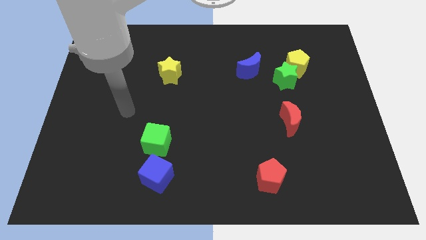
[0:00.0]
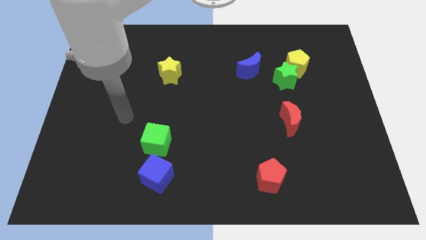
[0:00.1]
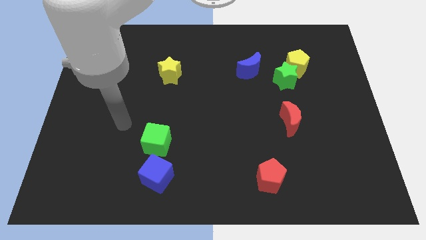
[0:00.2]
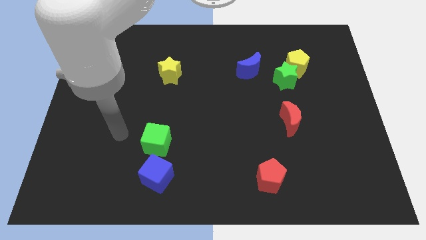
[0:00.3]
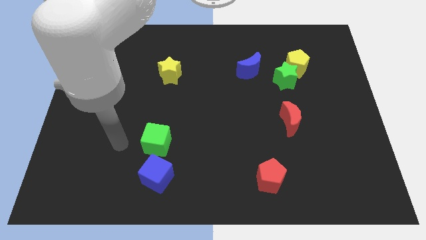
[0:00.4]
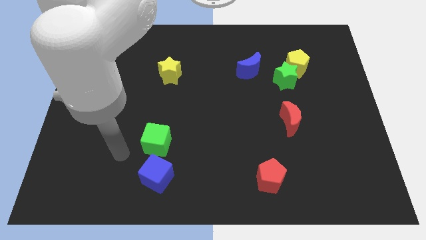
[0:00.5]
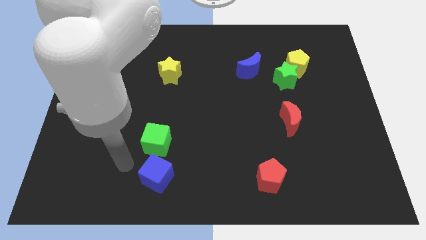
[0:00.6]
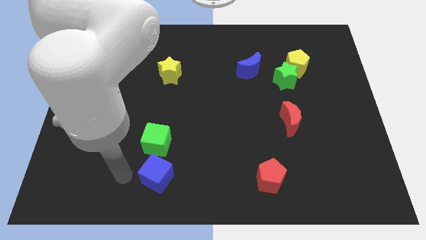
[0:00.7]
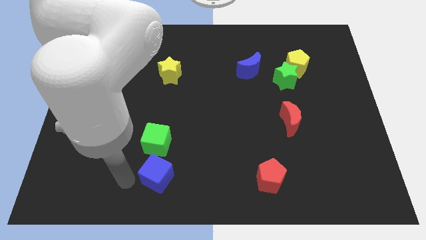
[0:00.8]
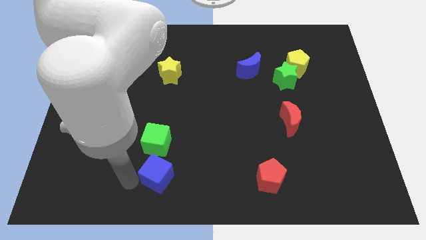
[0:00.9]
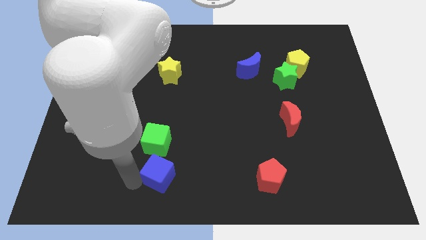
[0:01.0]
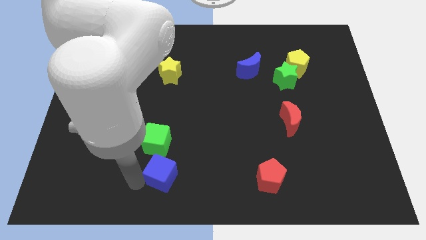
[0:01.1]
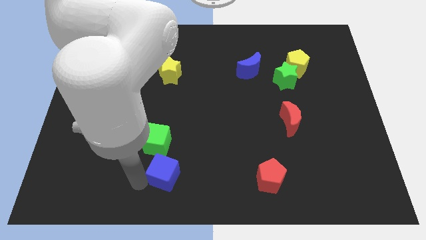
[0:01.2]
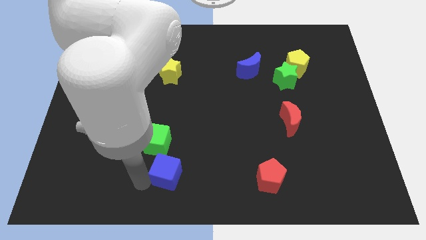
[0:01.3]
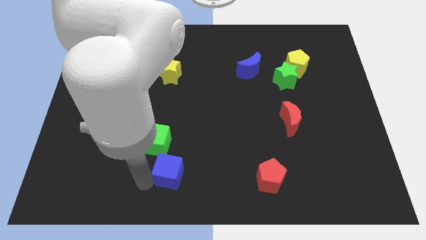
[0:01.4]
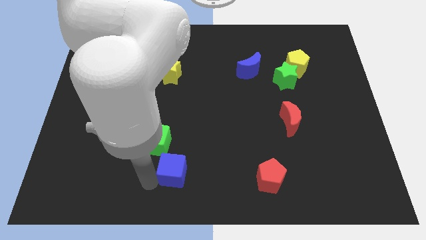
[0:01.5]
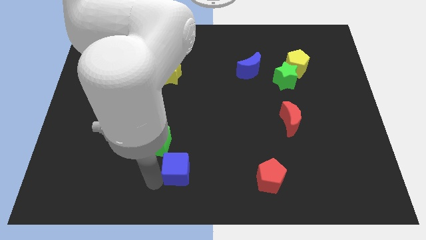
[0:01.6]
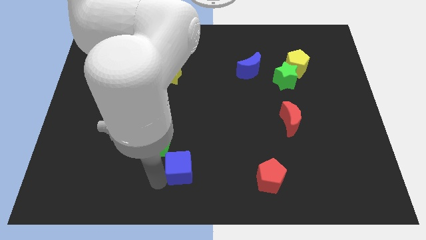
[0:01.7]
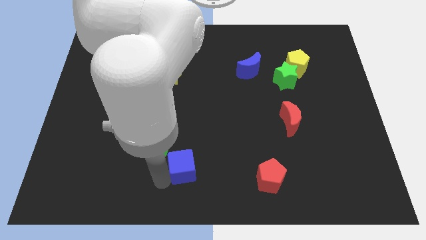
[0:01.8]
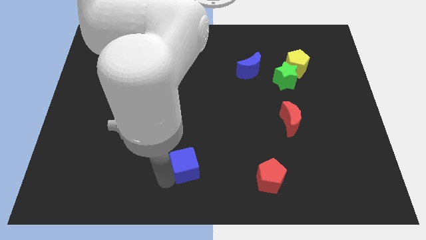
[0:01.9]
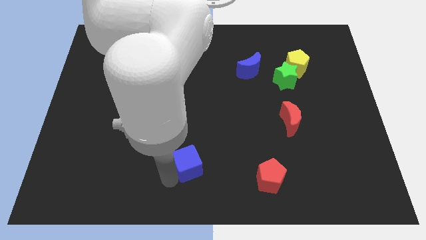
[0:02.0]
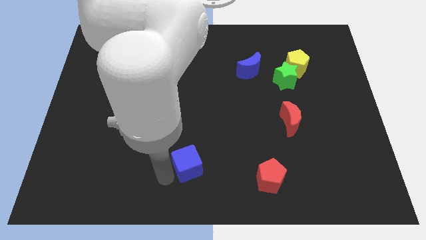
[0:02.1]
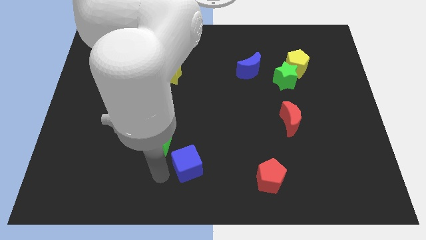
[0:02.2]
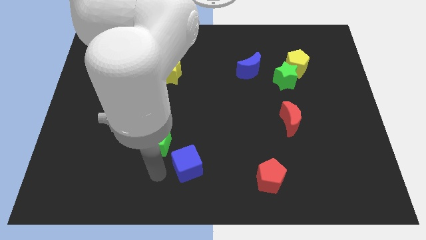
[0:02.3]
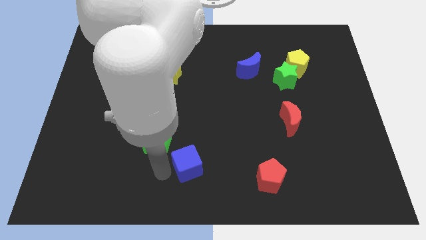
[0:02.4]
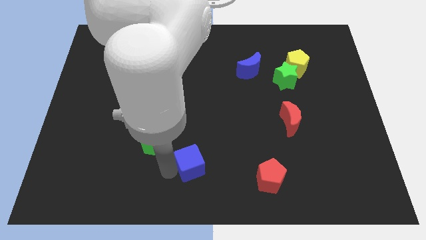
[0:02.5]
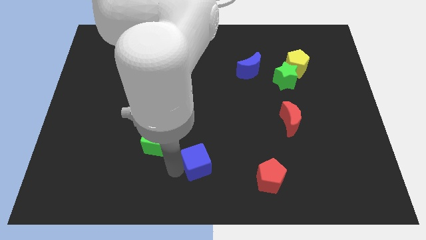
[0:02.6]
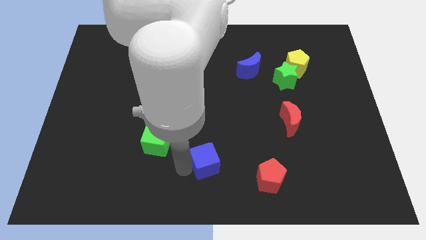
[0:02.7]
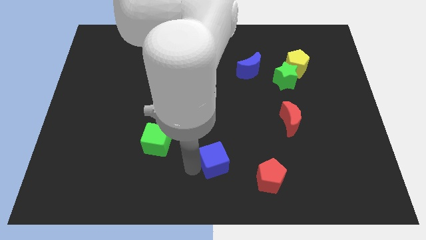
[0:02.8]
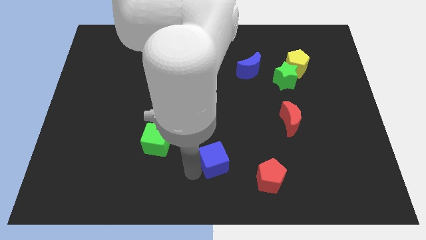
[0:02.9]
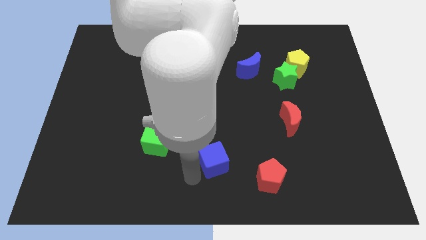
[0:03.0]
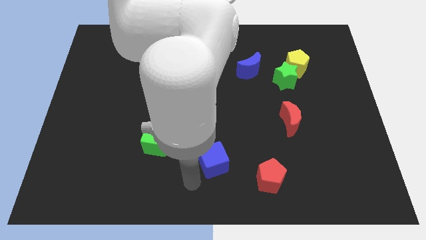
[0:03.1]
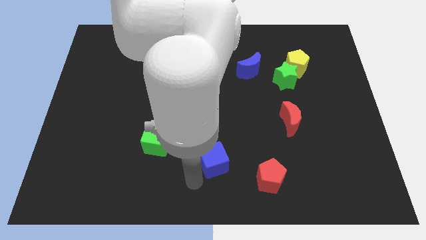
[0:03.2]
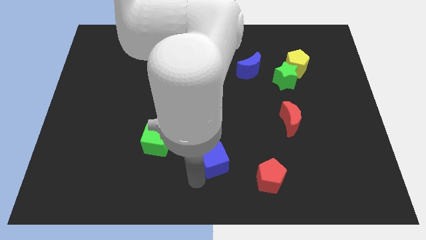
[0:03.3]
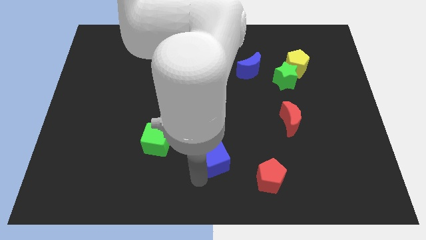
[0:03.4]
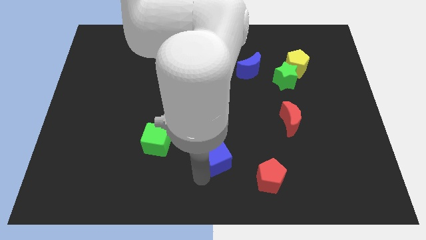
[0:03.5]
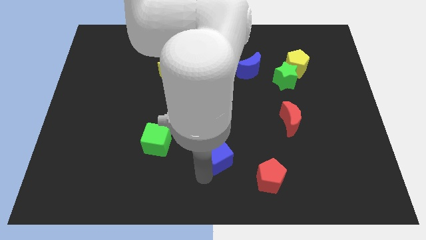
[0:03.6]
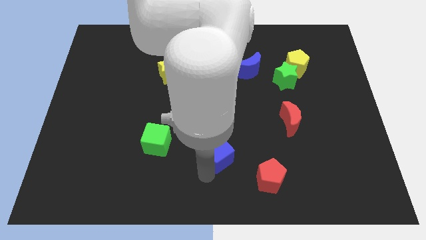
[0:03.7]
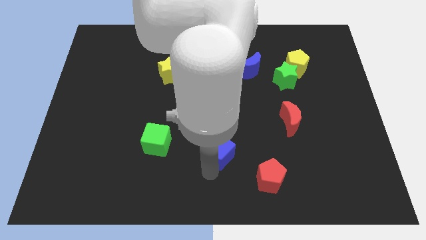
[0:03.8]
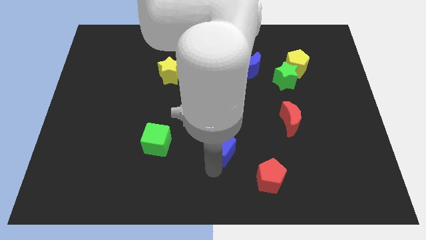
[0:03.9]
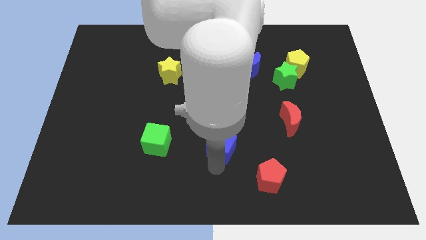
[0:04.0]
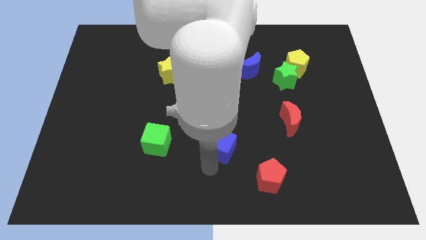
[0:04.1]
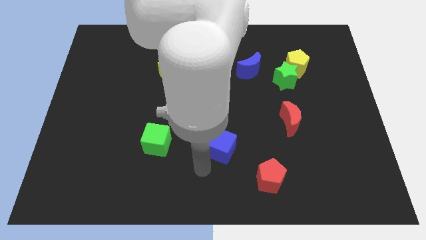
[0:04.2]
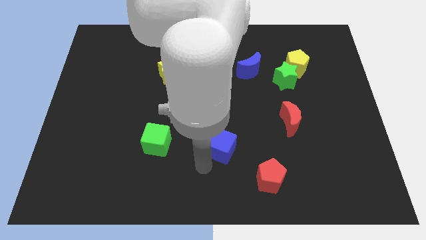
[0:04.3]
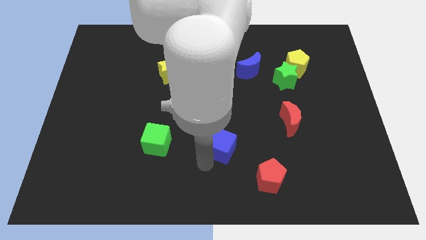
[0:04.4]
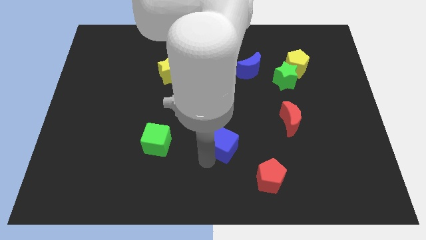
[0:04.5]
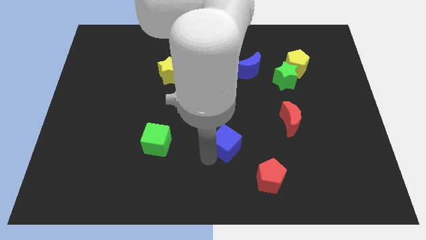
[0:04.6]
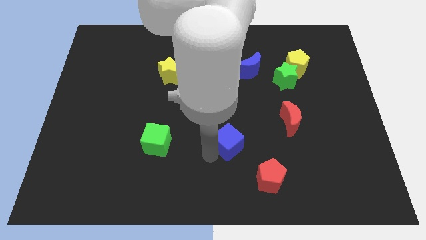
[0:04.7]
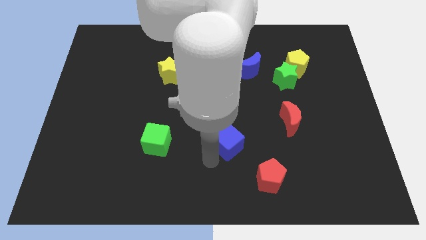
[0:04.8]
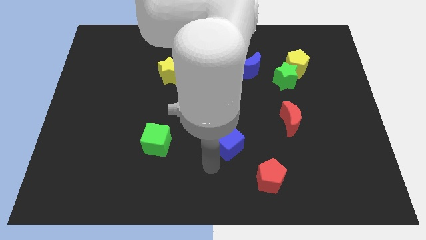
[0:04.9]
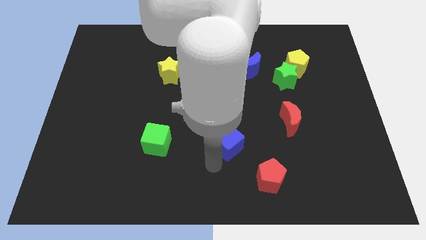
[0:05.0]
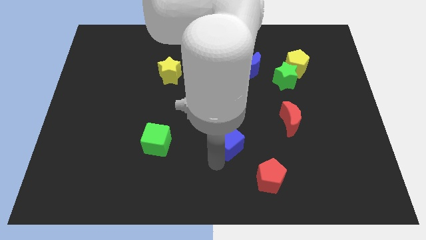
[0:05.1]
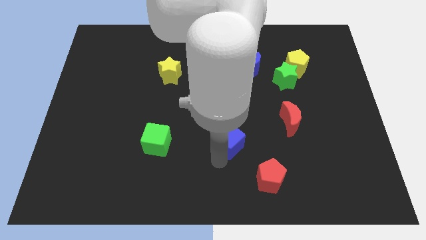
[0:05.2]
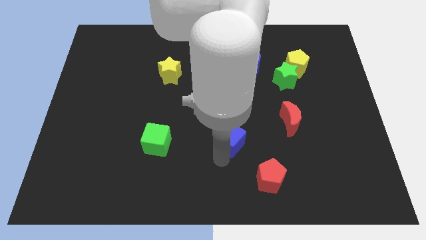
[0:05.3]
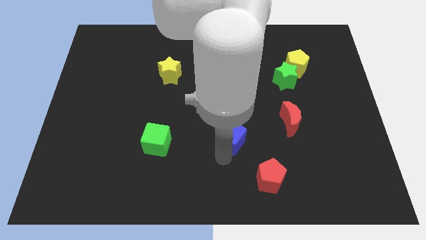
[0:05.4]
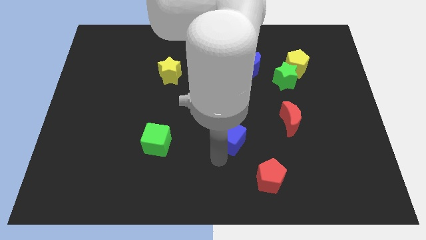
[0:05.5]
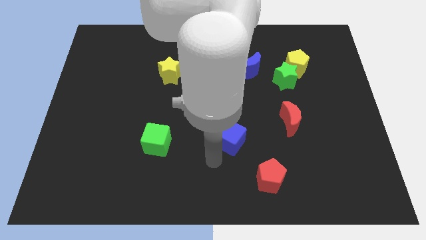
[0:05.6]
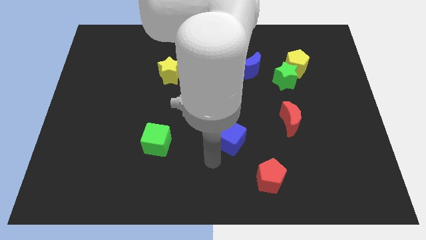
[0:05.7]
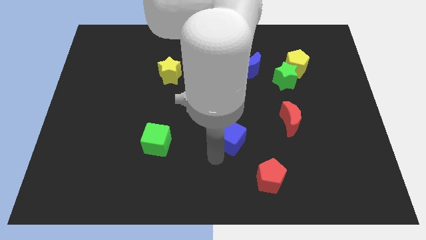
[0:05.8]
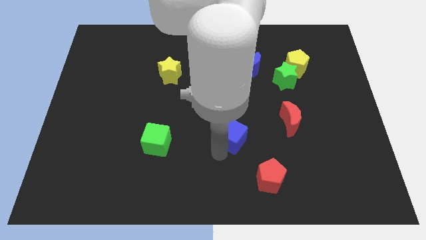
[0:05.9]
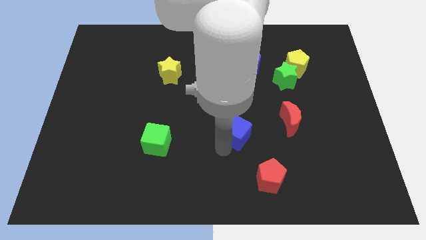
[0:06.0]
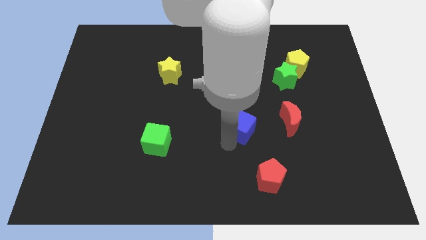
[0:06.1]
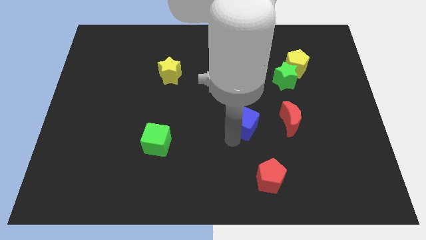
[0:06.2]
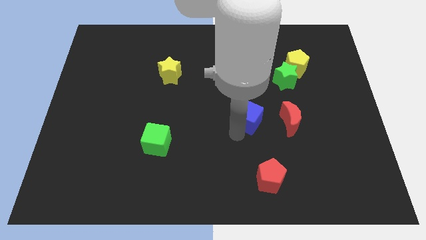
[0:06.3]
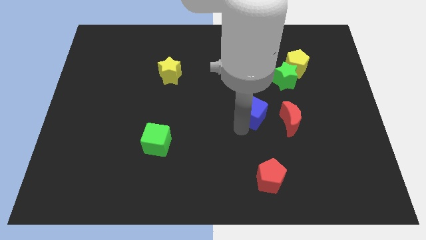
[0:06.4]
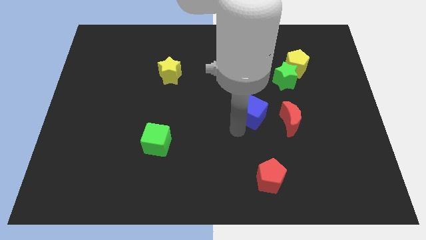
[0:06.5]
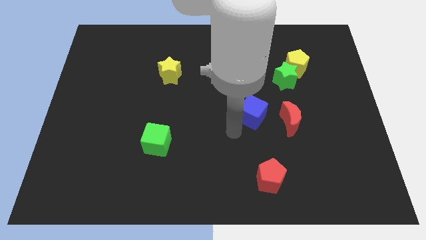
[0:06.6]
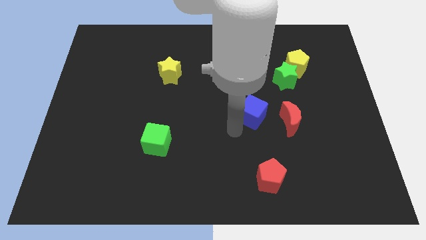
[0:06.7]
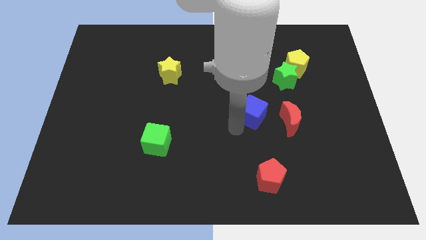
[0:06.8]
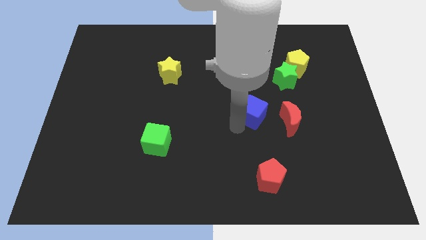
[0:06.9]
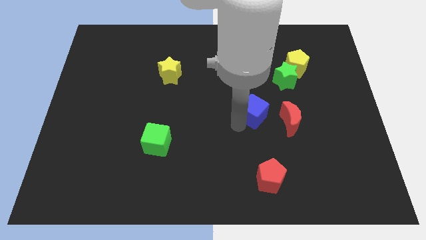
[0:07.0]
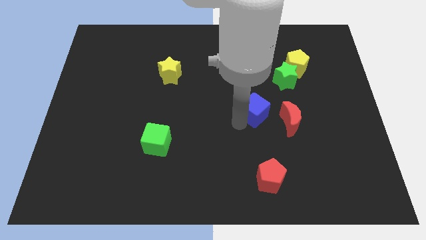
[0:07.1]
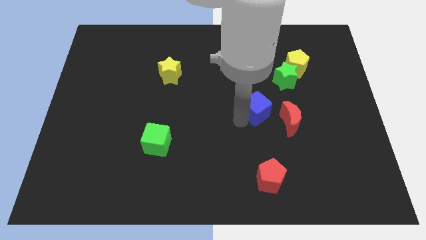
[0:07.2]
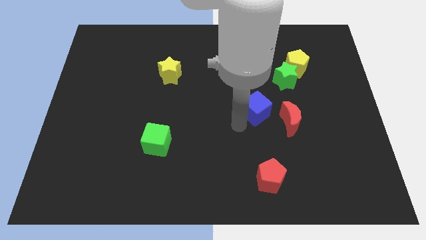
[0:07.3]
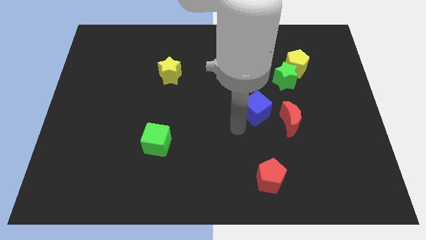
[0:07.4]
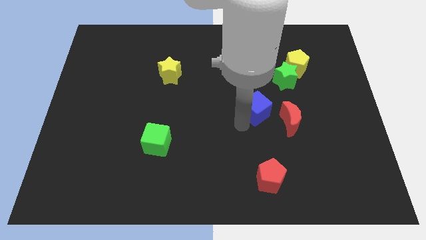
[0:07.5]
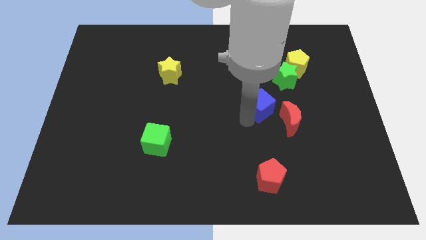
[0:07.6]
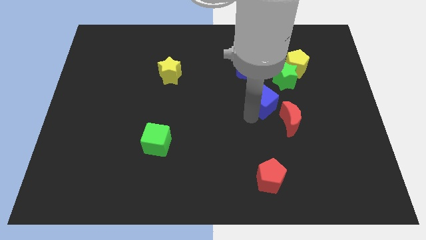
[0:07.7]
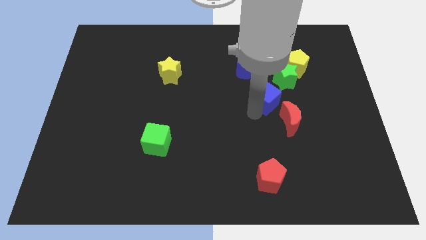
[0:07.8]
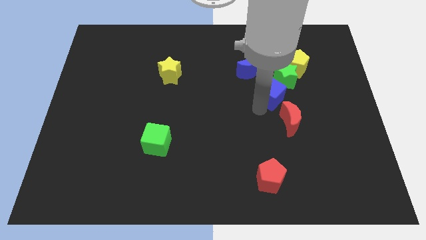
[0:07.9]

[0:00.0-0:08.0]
move the blue cube diagonally down and to the right of the blue moon
